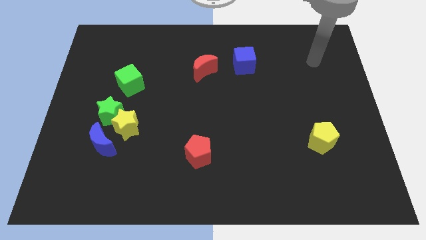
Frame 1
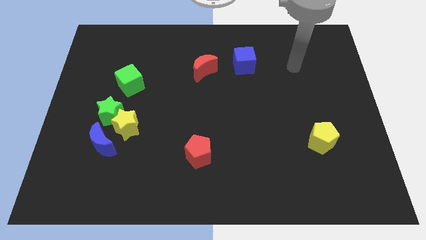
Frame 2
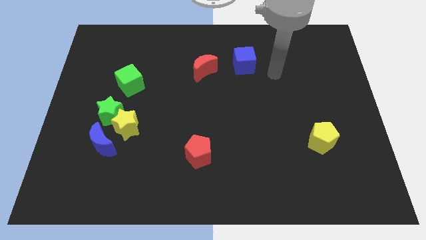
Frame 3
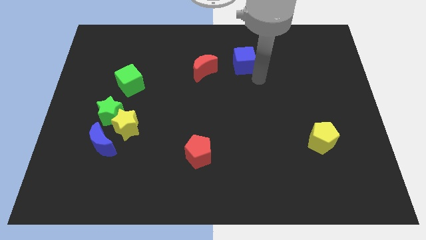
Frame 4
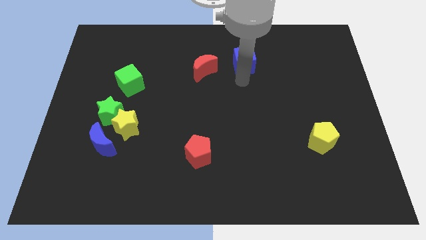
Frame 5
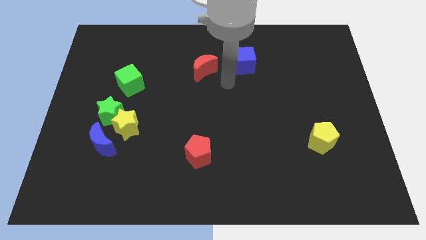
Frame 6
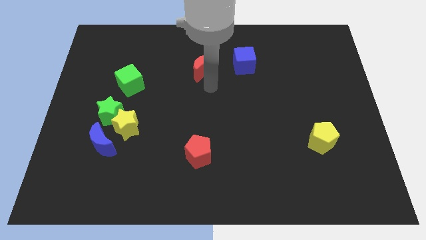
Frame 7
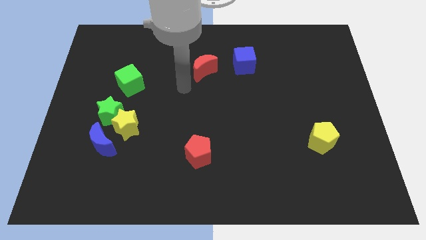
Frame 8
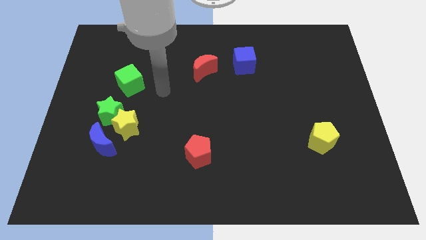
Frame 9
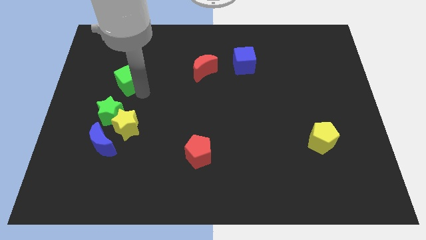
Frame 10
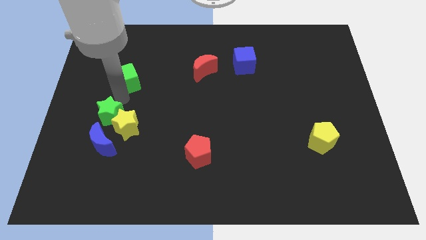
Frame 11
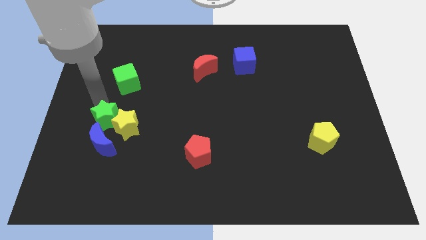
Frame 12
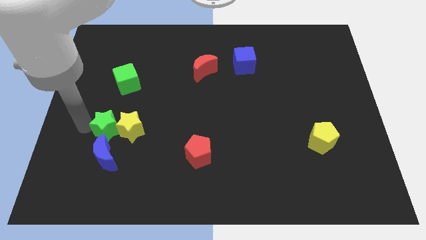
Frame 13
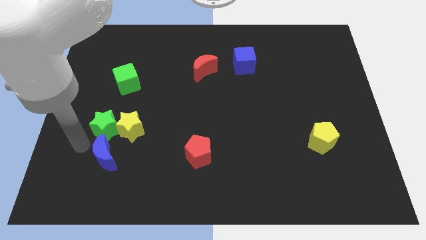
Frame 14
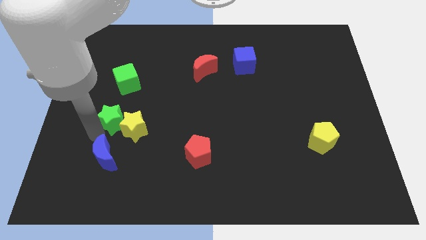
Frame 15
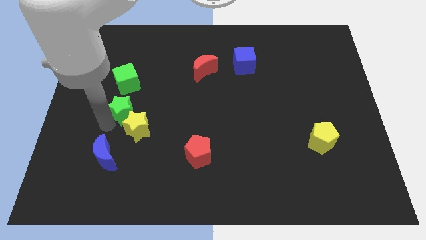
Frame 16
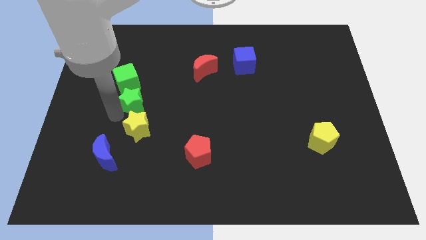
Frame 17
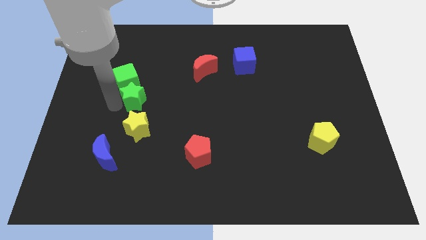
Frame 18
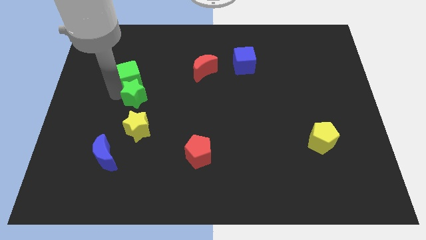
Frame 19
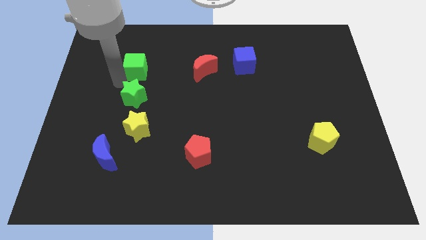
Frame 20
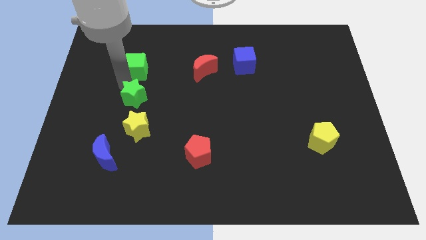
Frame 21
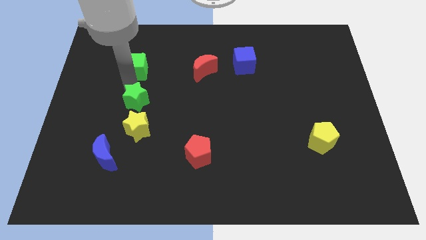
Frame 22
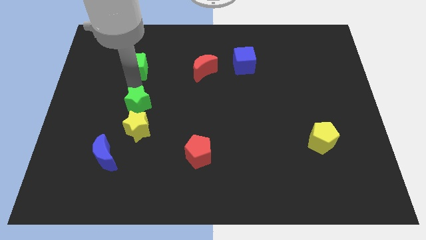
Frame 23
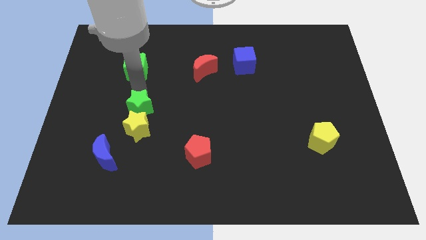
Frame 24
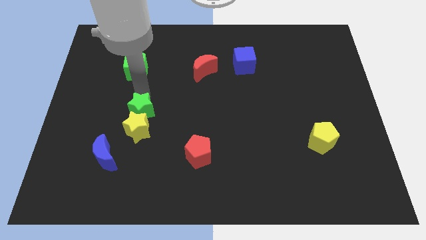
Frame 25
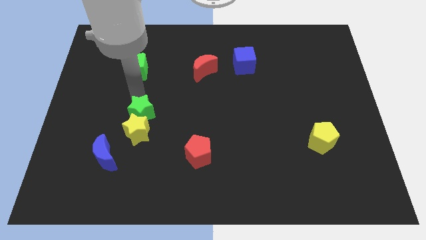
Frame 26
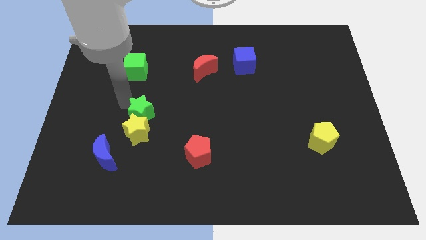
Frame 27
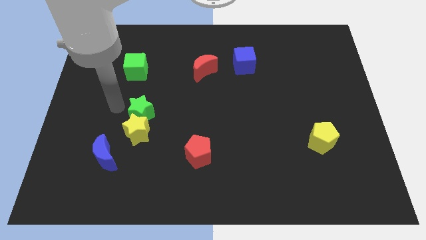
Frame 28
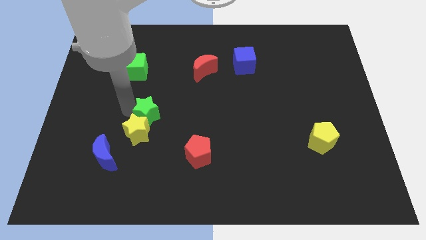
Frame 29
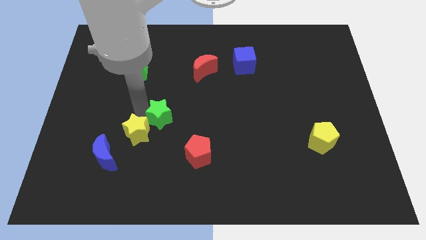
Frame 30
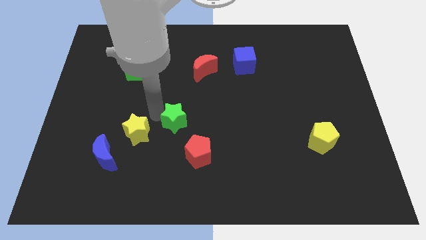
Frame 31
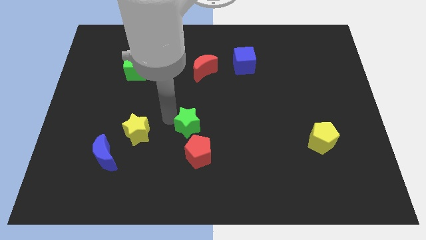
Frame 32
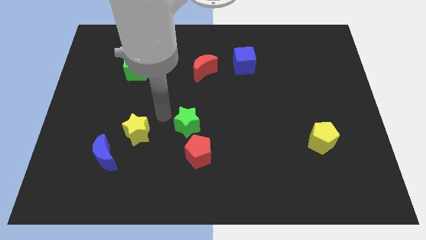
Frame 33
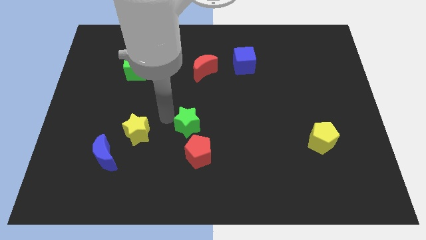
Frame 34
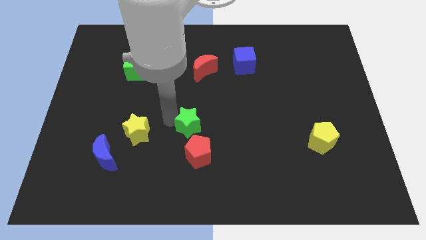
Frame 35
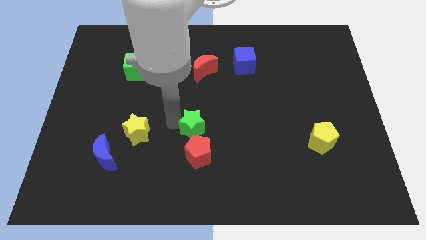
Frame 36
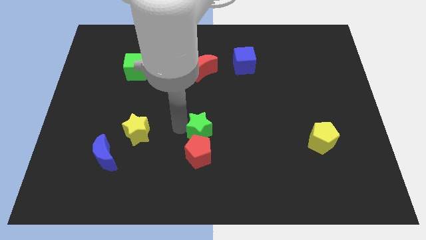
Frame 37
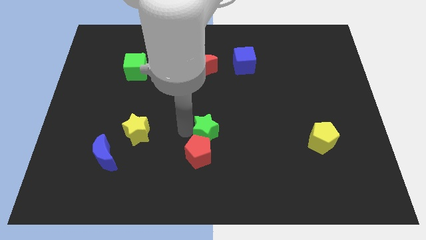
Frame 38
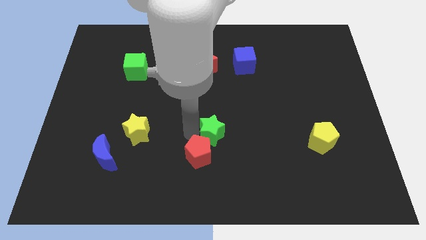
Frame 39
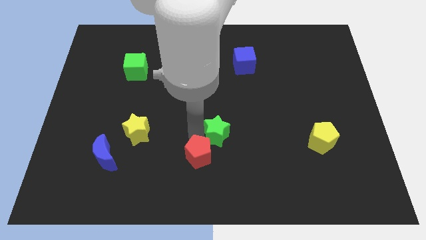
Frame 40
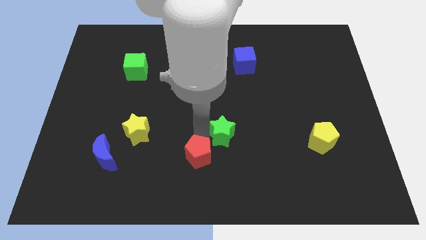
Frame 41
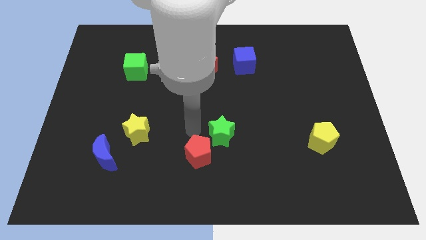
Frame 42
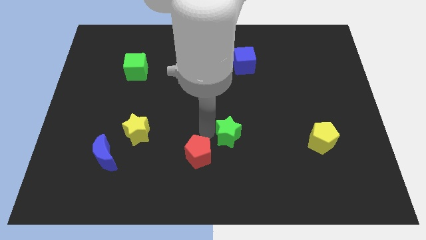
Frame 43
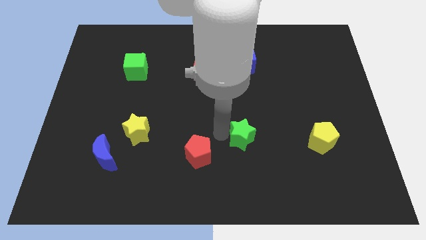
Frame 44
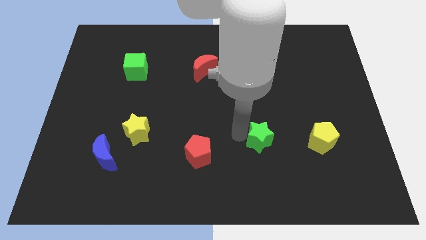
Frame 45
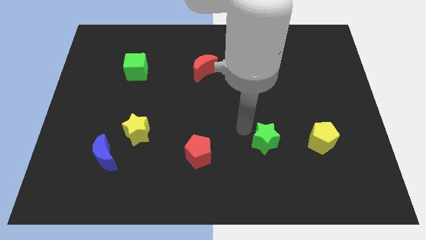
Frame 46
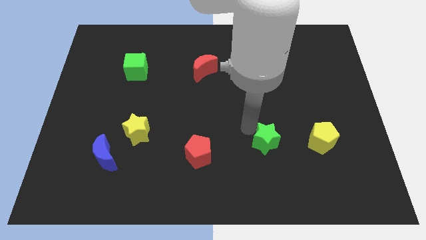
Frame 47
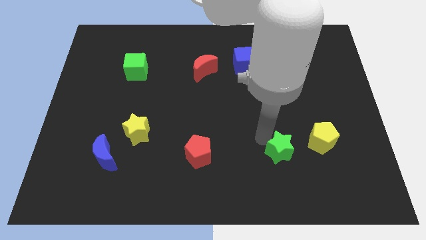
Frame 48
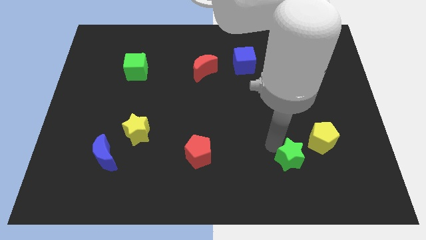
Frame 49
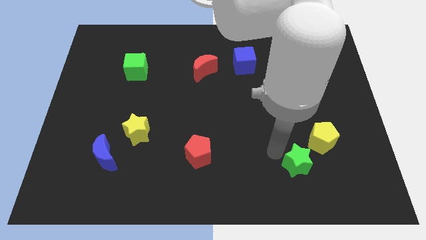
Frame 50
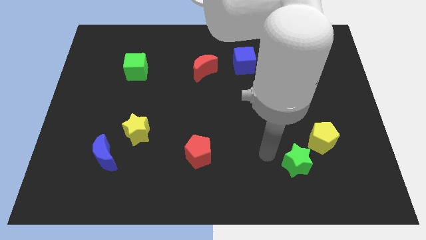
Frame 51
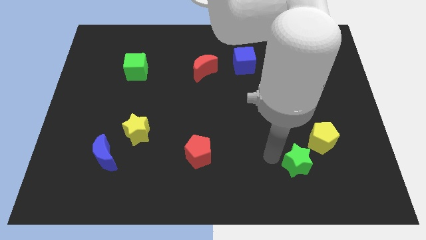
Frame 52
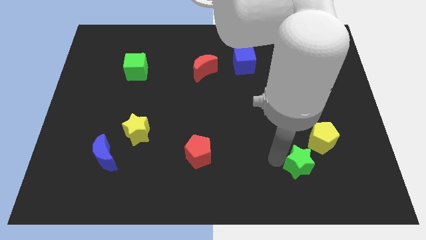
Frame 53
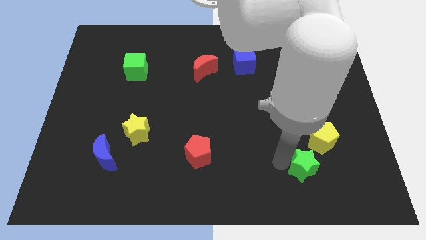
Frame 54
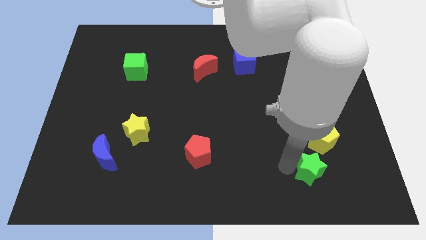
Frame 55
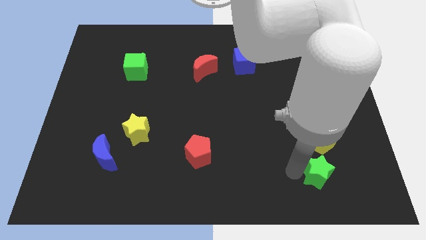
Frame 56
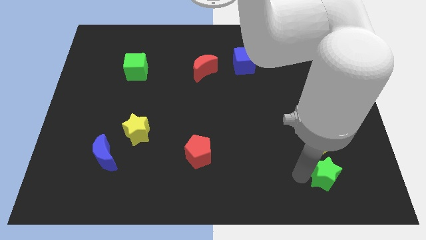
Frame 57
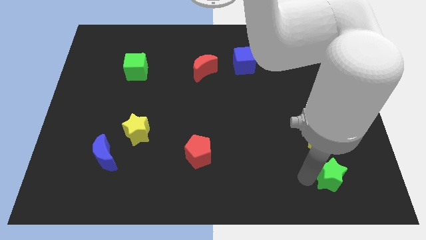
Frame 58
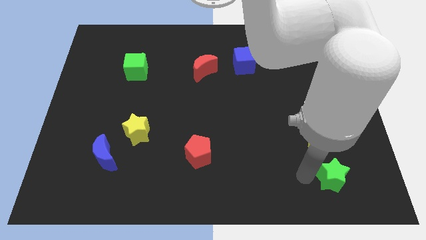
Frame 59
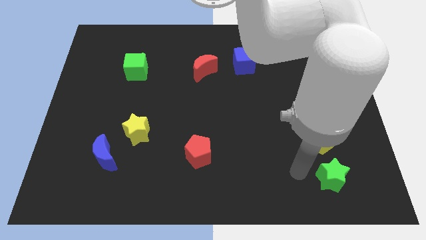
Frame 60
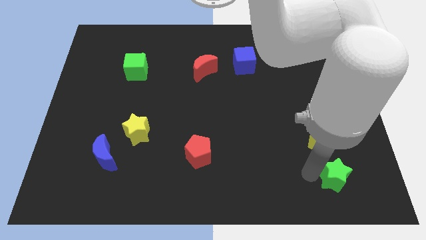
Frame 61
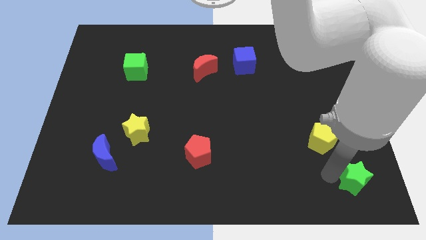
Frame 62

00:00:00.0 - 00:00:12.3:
move the green star to the bottom right corner

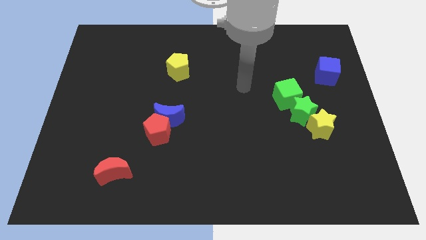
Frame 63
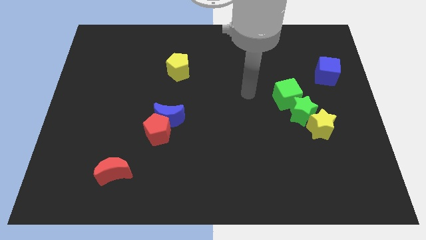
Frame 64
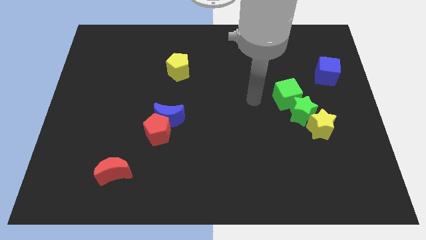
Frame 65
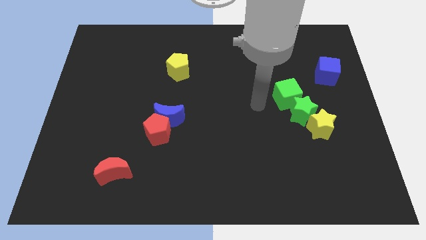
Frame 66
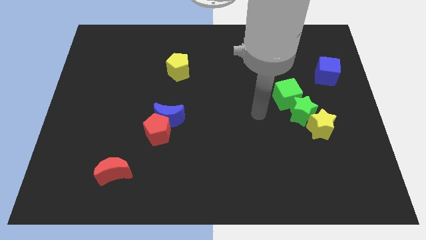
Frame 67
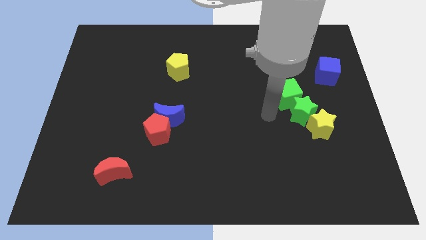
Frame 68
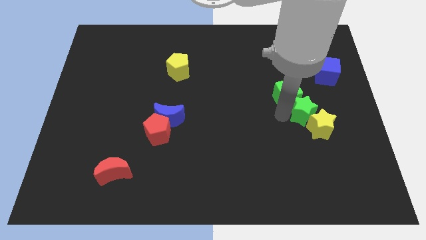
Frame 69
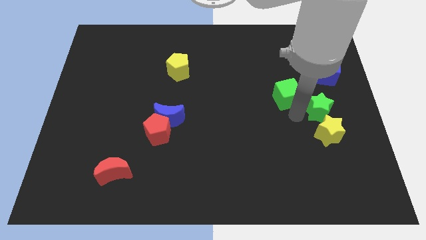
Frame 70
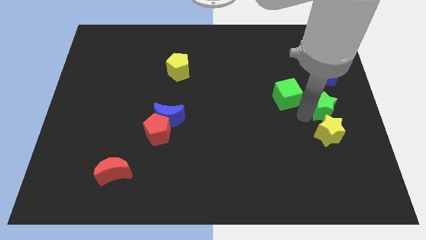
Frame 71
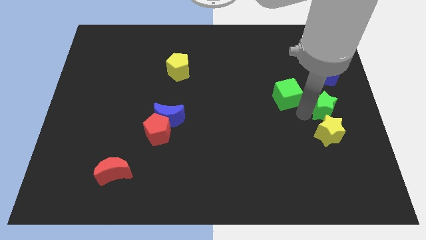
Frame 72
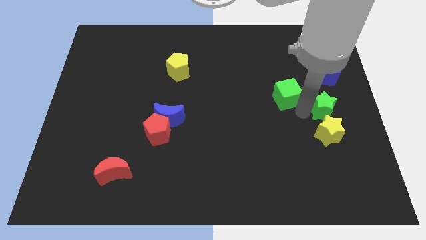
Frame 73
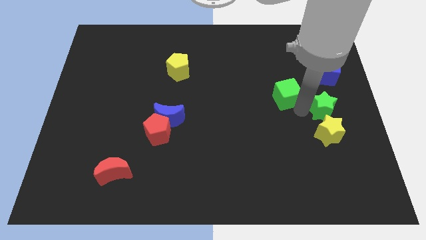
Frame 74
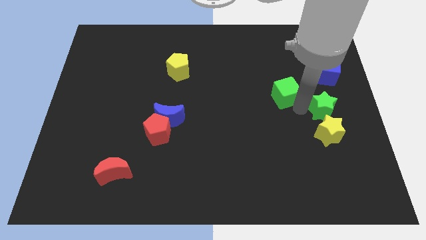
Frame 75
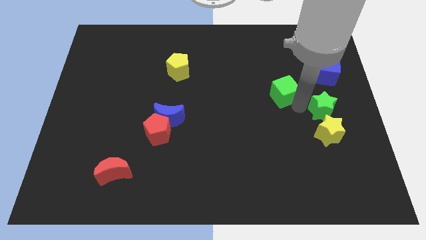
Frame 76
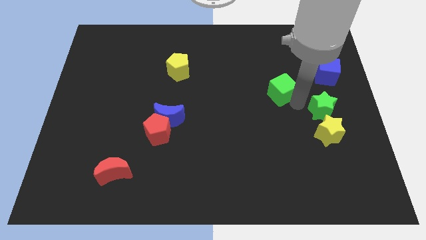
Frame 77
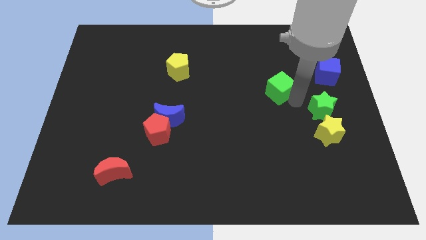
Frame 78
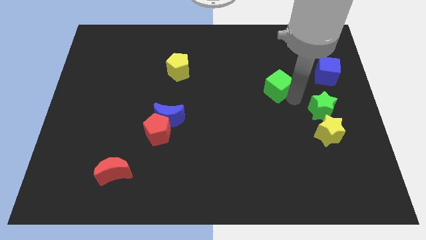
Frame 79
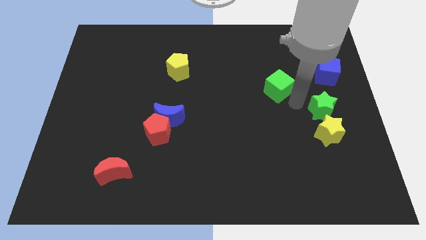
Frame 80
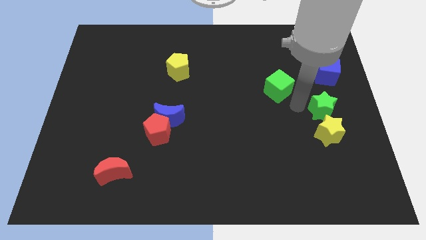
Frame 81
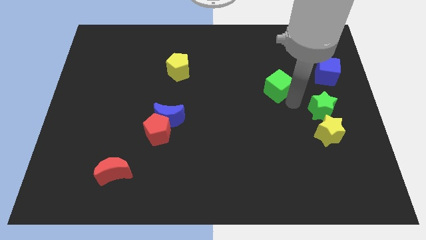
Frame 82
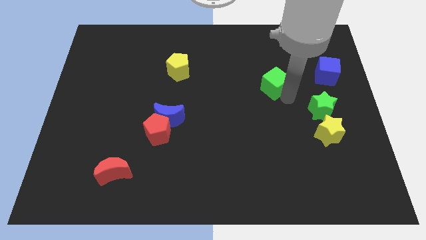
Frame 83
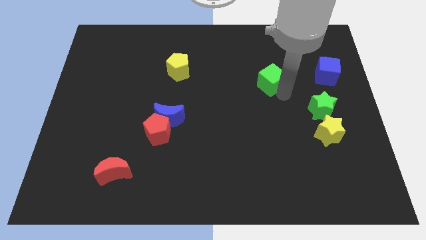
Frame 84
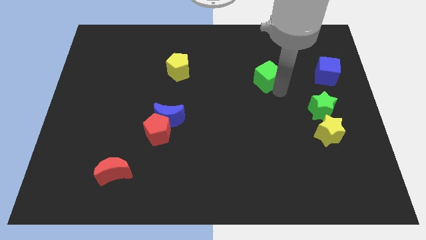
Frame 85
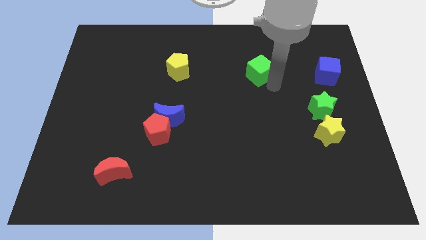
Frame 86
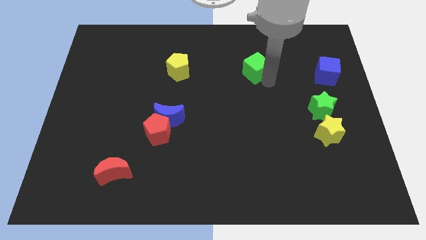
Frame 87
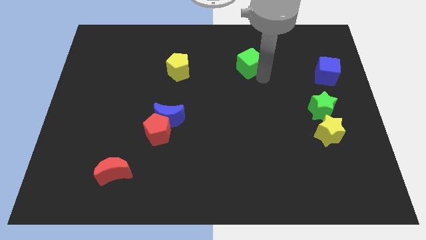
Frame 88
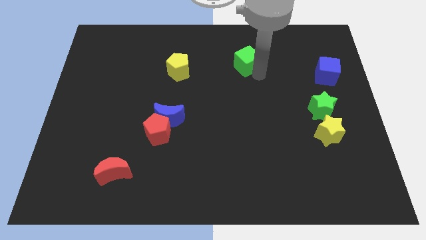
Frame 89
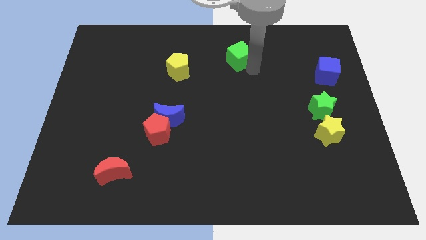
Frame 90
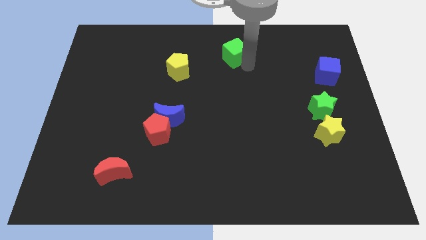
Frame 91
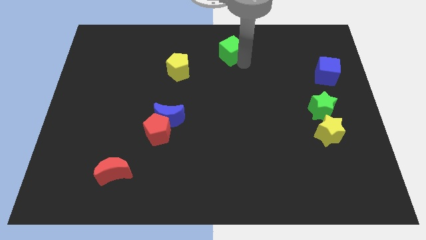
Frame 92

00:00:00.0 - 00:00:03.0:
move the green cube to the top side
